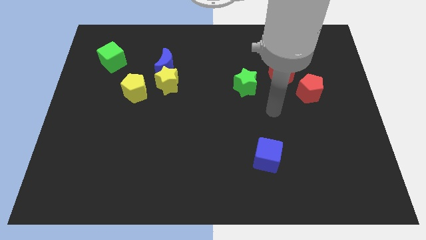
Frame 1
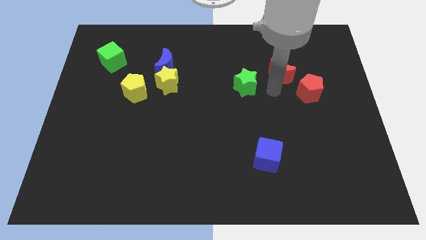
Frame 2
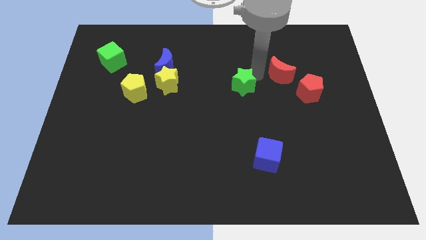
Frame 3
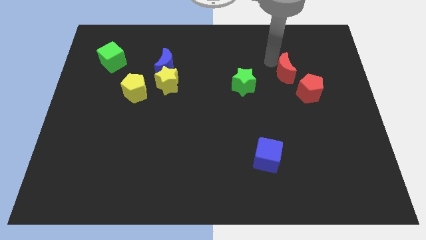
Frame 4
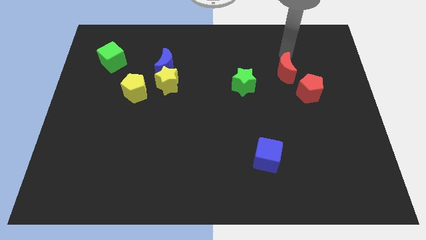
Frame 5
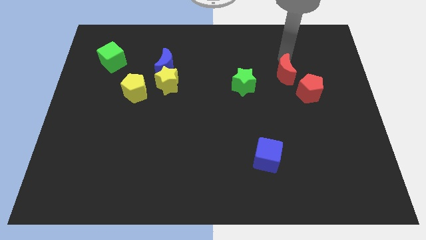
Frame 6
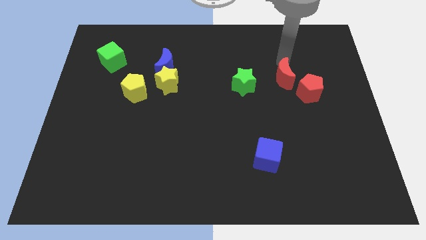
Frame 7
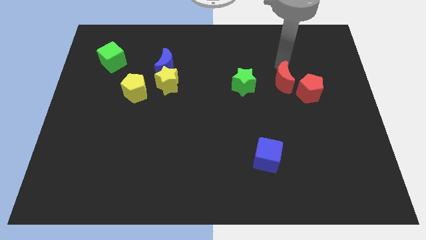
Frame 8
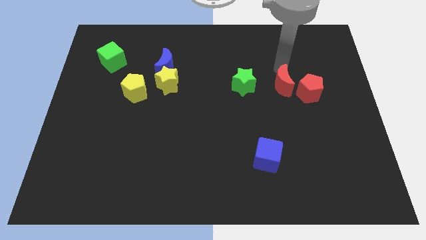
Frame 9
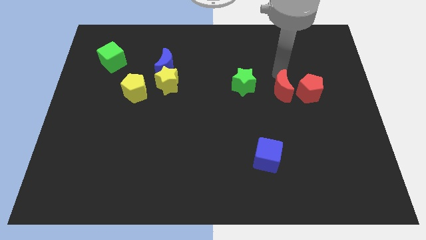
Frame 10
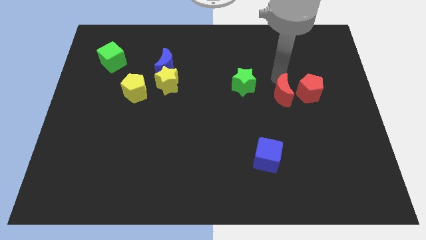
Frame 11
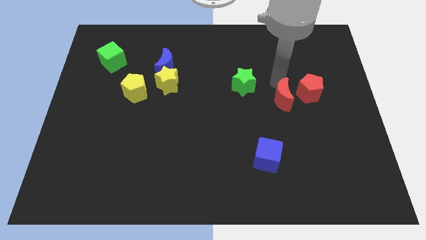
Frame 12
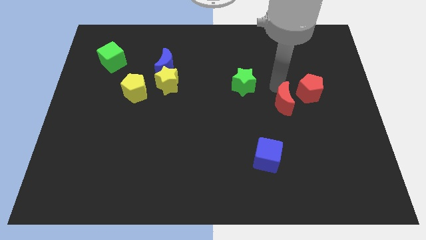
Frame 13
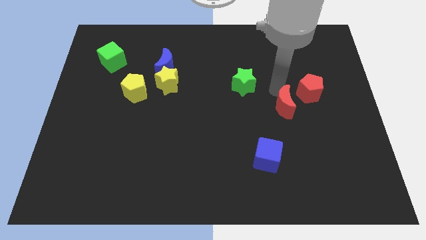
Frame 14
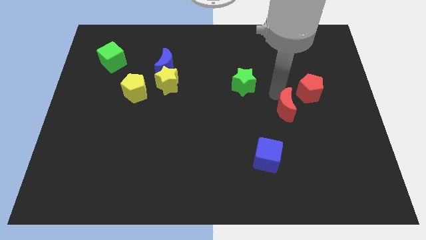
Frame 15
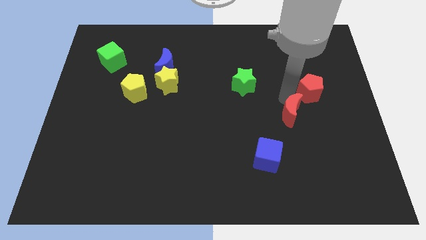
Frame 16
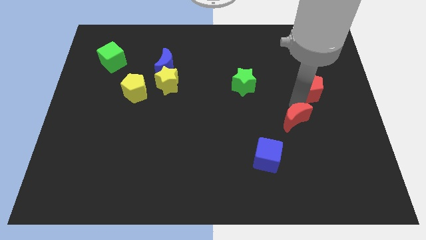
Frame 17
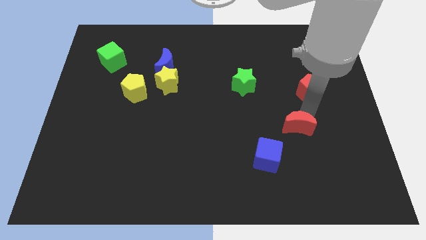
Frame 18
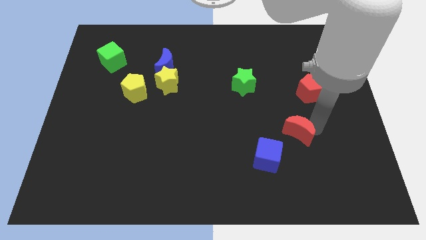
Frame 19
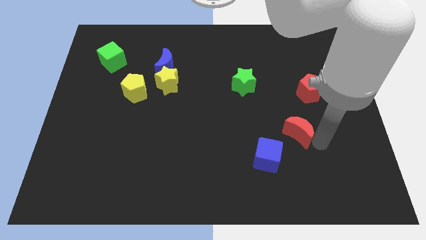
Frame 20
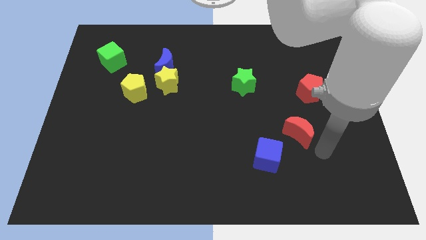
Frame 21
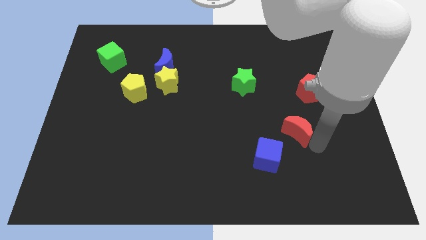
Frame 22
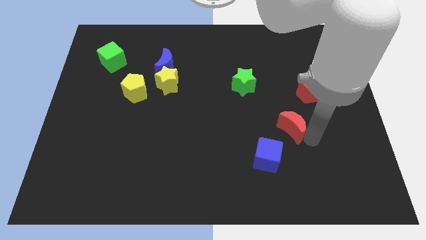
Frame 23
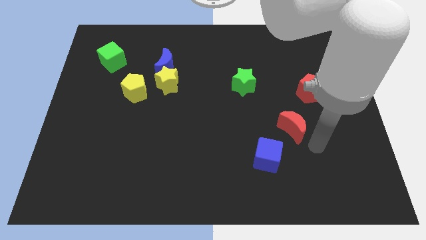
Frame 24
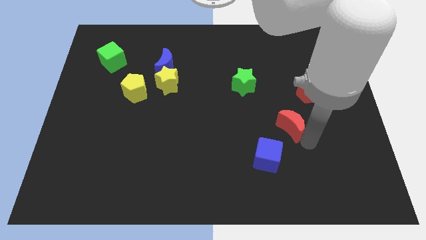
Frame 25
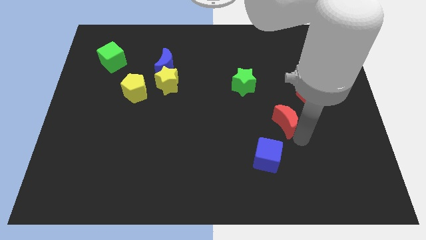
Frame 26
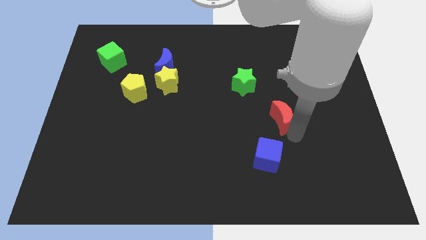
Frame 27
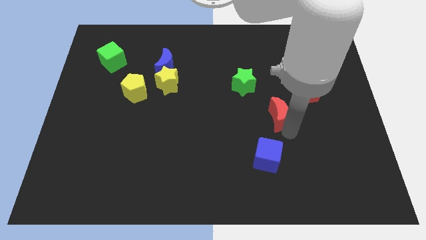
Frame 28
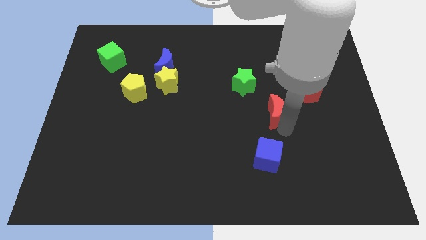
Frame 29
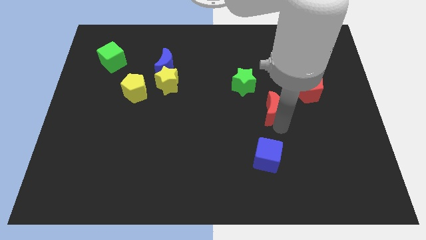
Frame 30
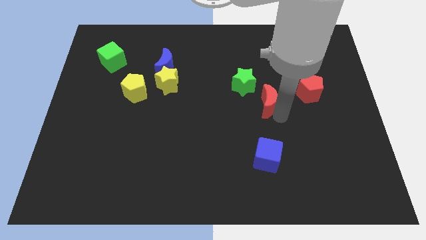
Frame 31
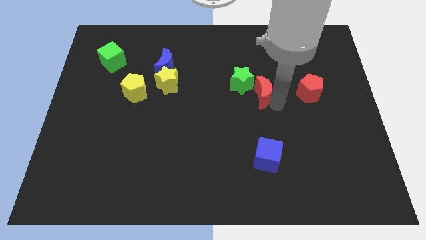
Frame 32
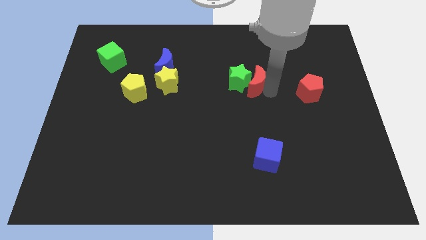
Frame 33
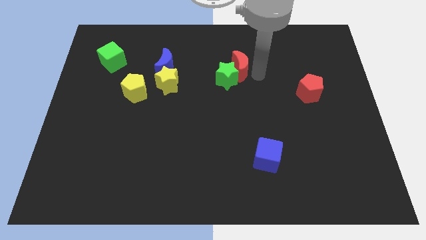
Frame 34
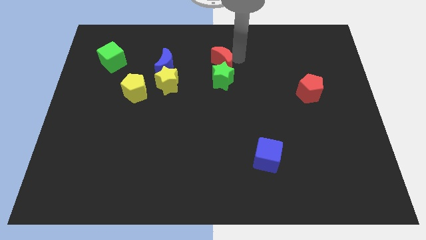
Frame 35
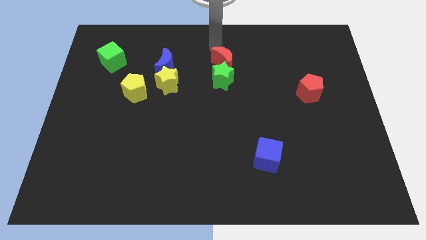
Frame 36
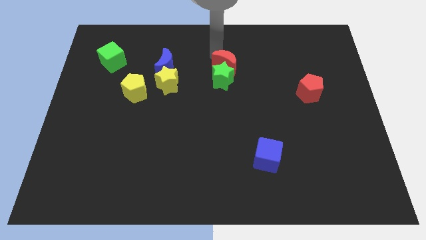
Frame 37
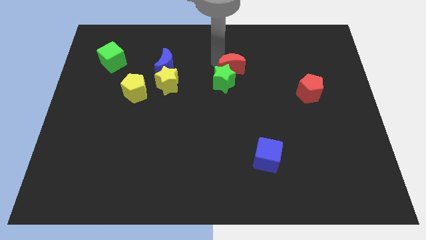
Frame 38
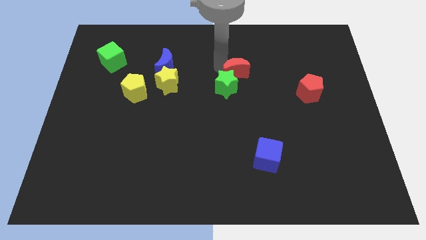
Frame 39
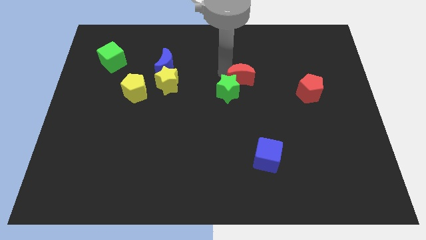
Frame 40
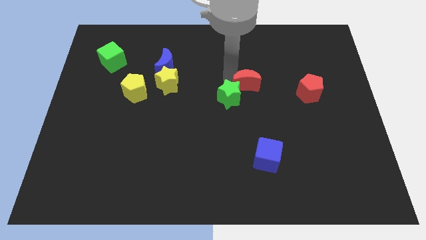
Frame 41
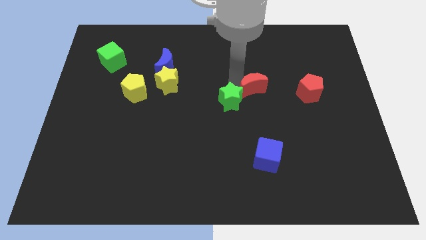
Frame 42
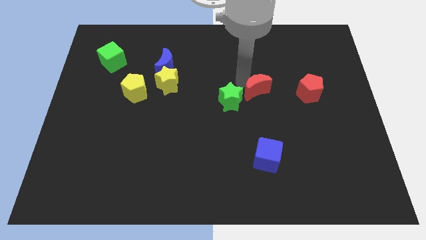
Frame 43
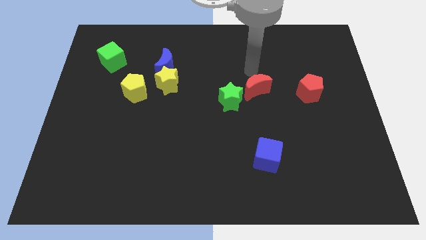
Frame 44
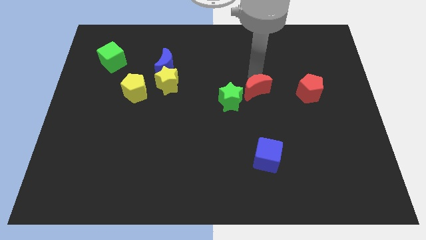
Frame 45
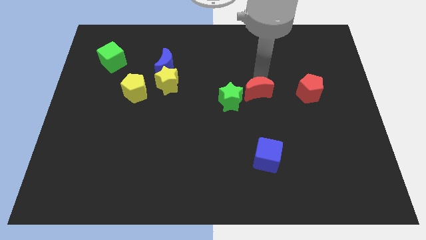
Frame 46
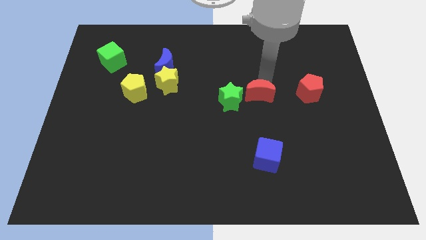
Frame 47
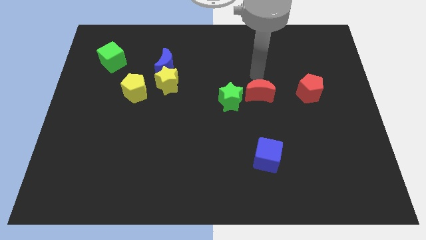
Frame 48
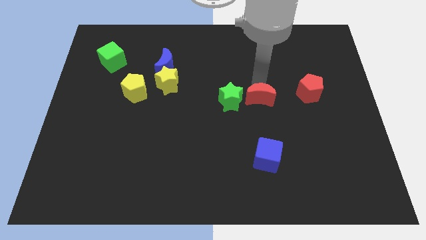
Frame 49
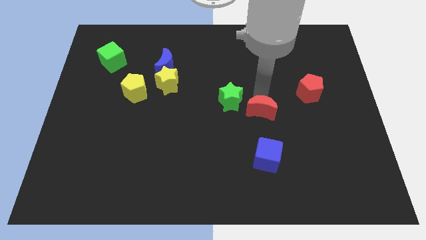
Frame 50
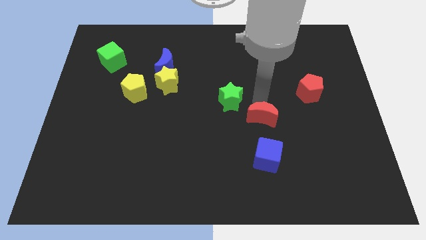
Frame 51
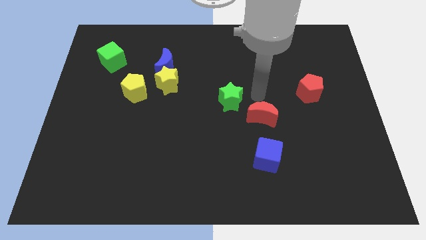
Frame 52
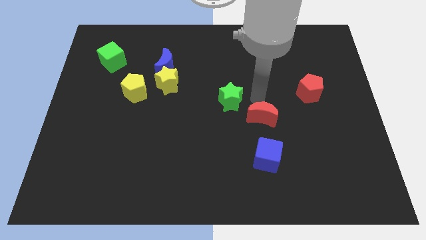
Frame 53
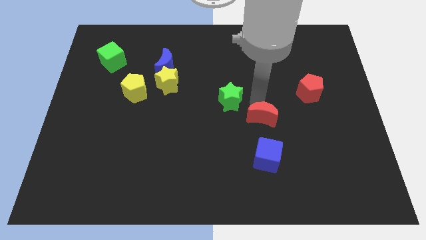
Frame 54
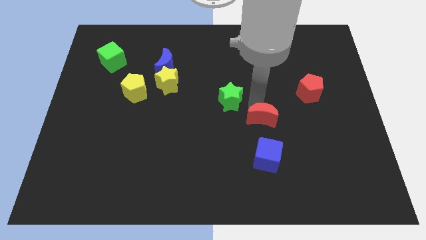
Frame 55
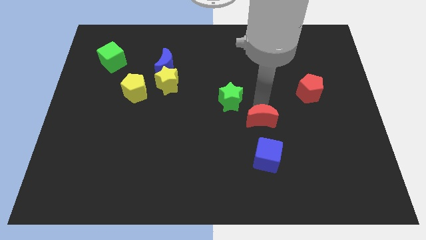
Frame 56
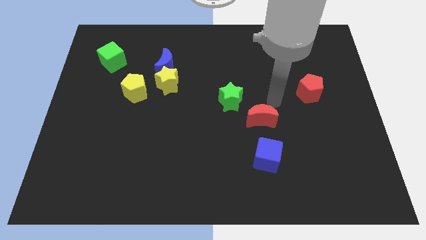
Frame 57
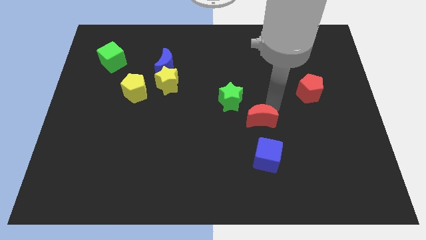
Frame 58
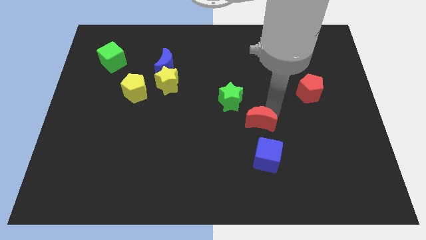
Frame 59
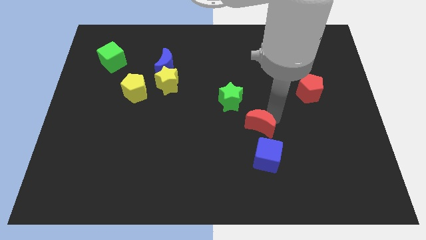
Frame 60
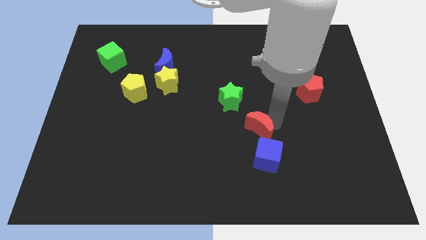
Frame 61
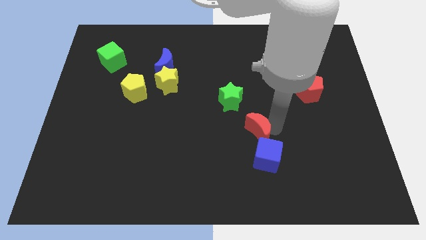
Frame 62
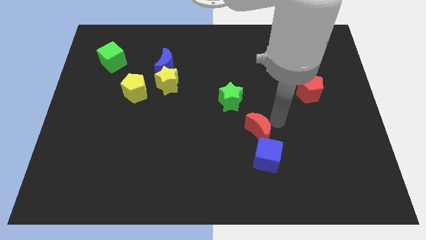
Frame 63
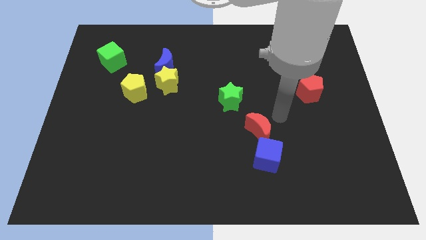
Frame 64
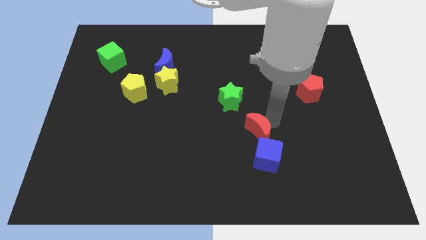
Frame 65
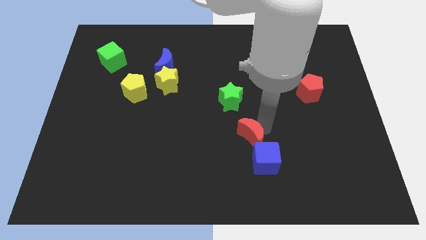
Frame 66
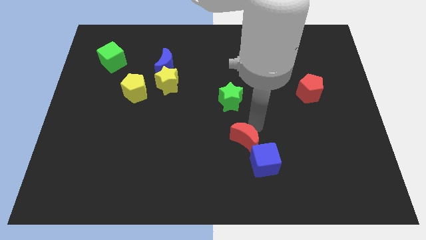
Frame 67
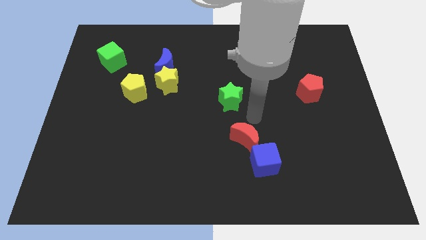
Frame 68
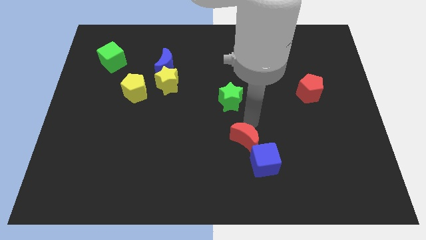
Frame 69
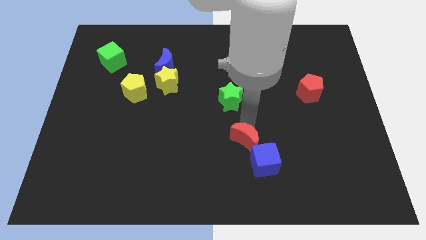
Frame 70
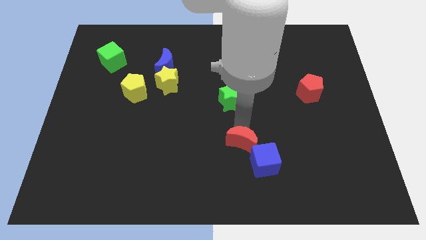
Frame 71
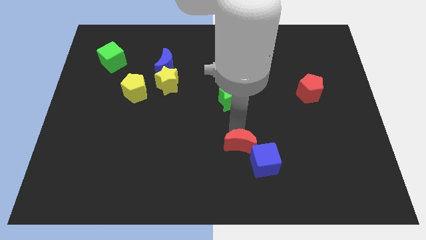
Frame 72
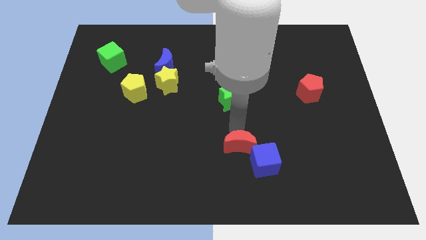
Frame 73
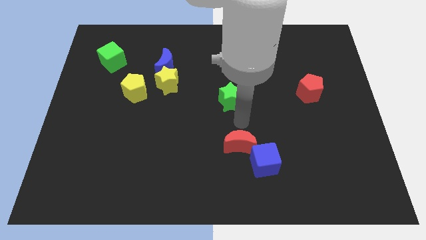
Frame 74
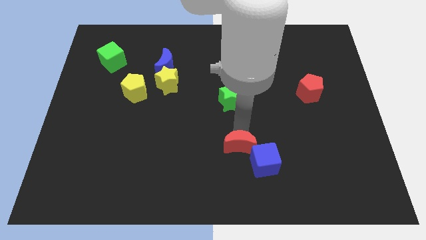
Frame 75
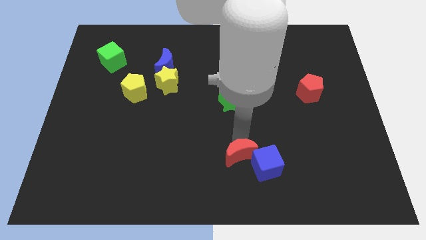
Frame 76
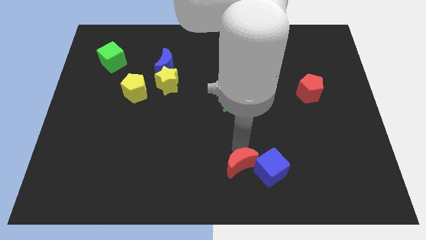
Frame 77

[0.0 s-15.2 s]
put the red moon to the bottom side
